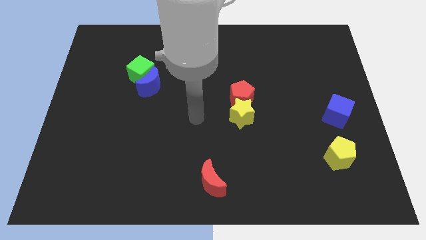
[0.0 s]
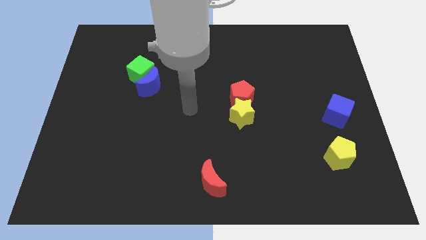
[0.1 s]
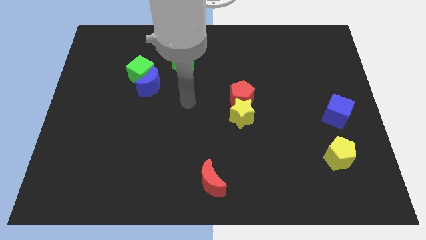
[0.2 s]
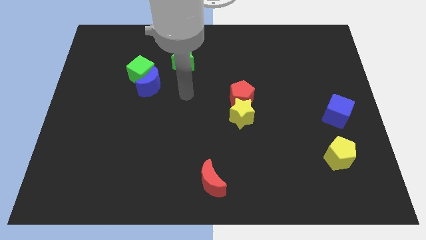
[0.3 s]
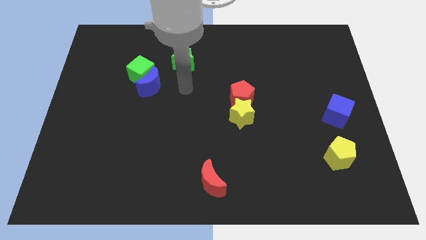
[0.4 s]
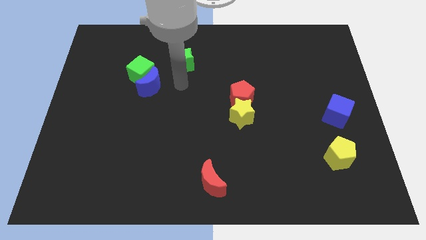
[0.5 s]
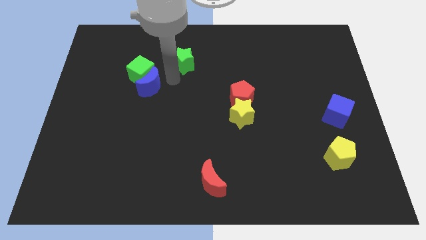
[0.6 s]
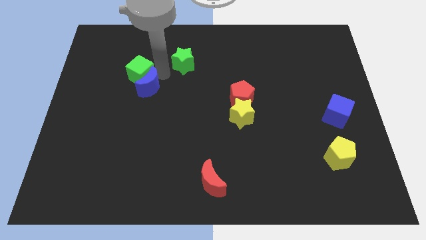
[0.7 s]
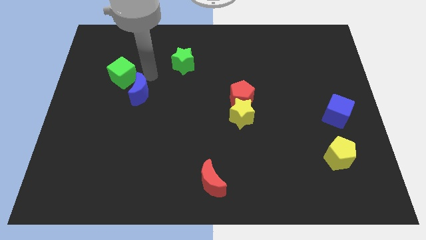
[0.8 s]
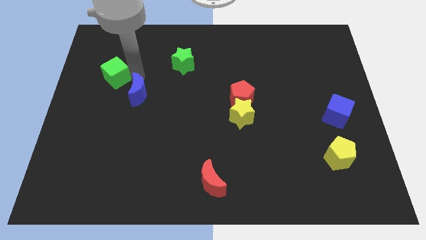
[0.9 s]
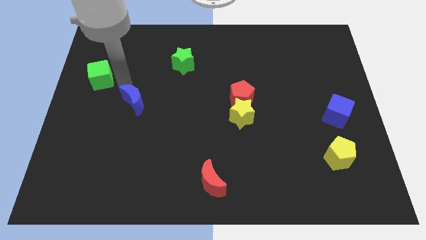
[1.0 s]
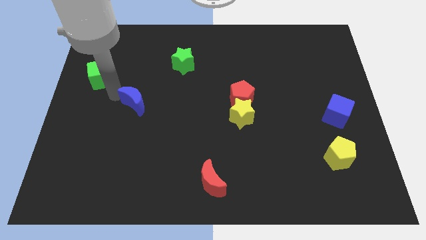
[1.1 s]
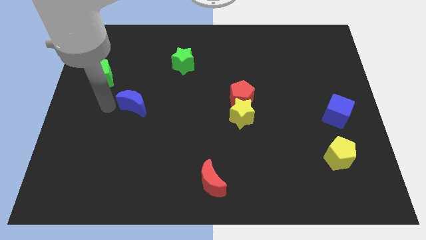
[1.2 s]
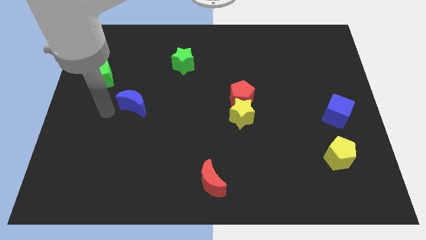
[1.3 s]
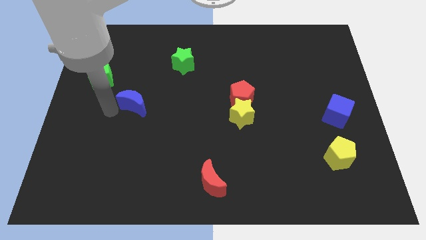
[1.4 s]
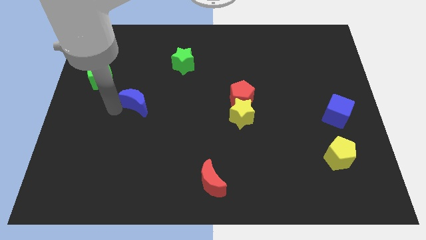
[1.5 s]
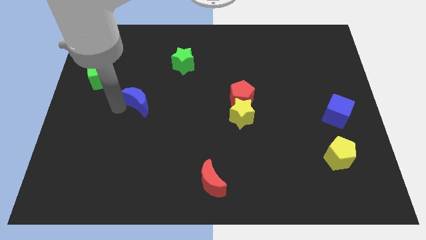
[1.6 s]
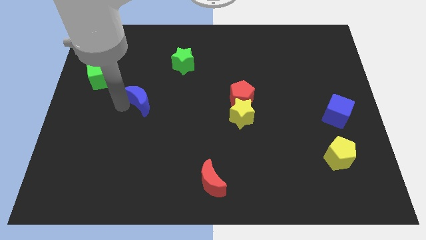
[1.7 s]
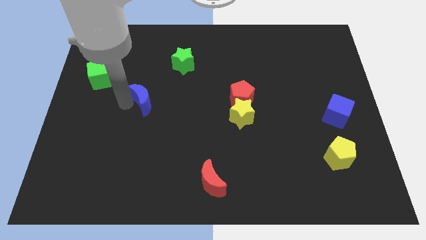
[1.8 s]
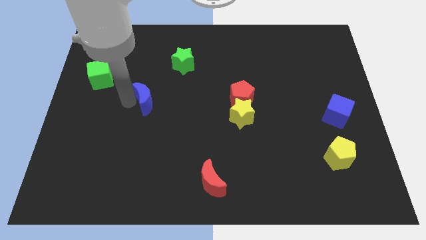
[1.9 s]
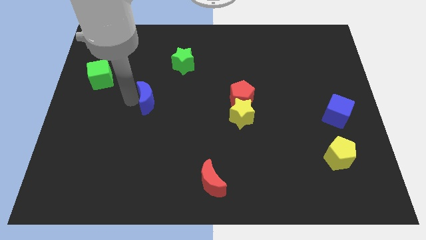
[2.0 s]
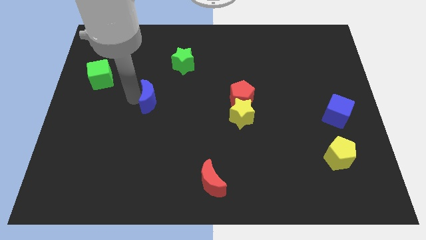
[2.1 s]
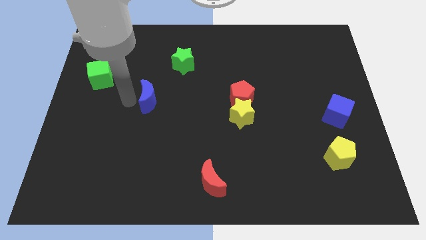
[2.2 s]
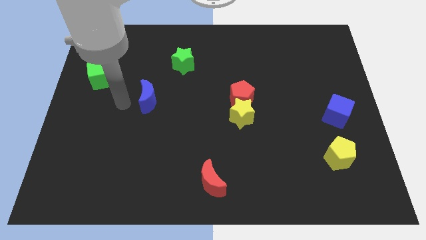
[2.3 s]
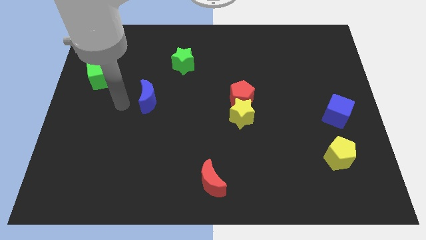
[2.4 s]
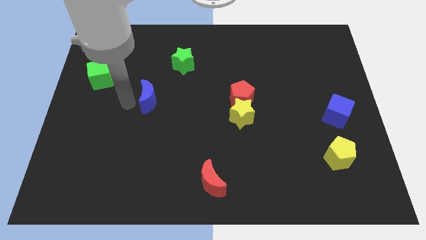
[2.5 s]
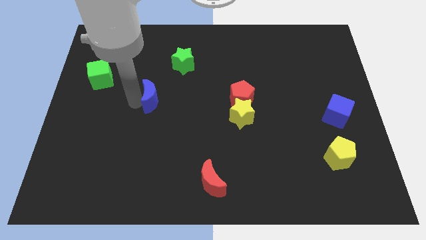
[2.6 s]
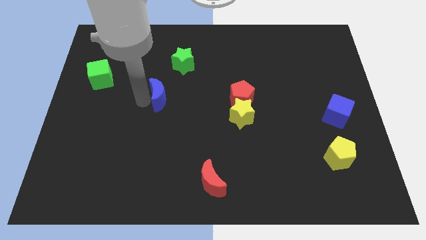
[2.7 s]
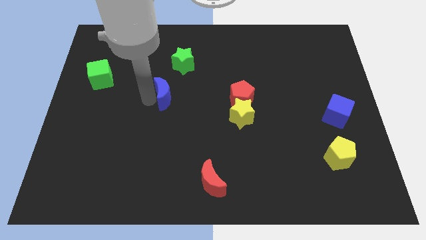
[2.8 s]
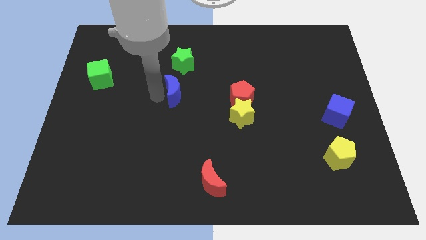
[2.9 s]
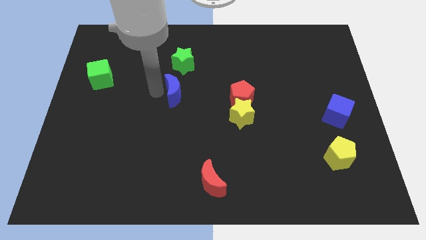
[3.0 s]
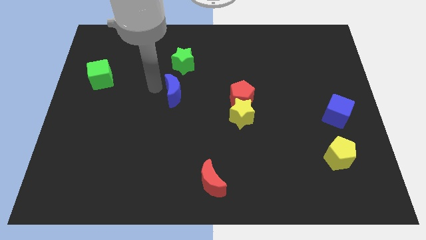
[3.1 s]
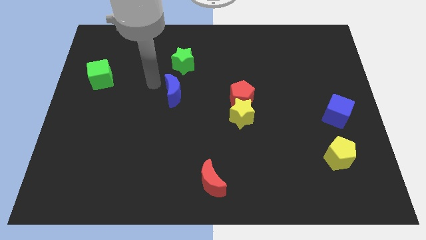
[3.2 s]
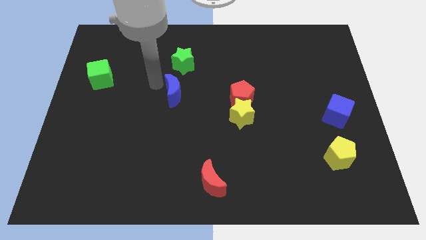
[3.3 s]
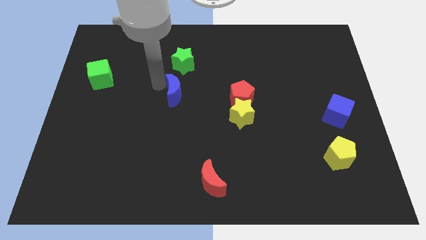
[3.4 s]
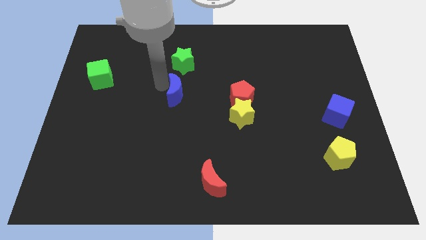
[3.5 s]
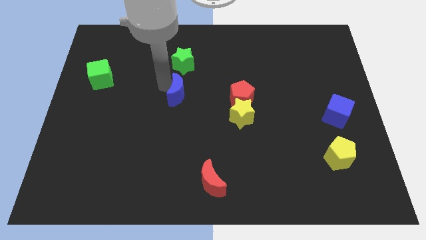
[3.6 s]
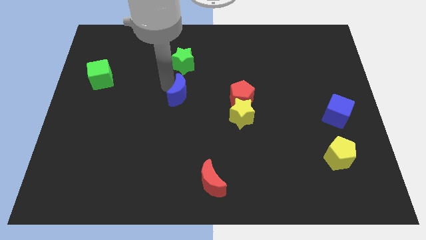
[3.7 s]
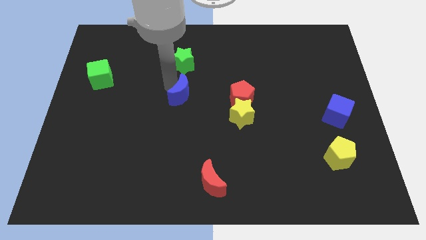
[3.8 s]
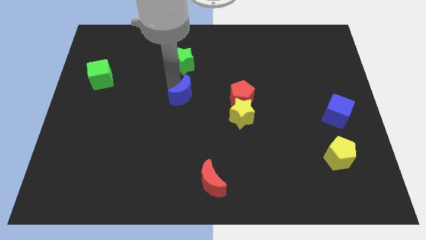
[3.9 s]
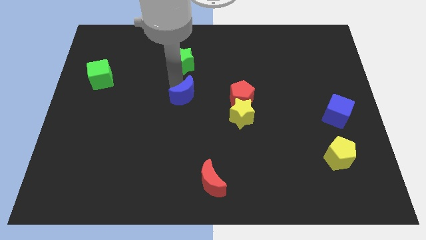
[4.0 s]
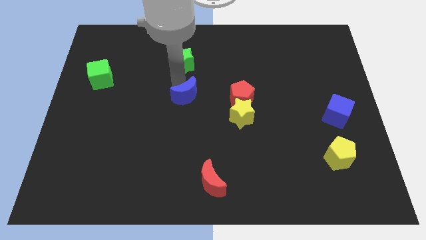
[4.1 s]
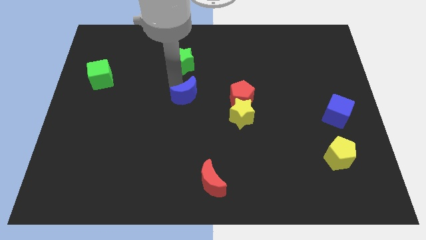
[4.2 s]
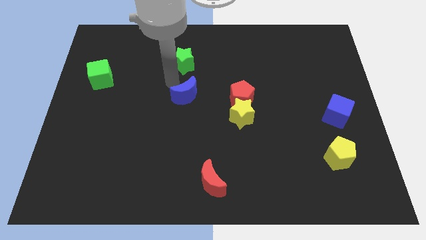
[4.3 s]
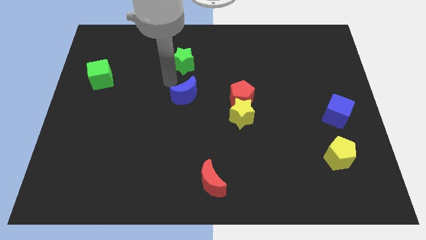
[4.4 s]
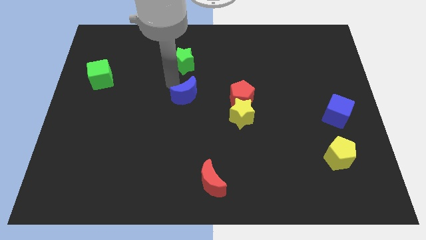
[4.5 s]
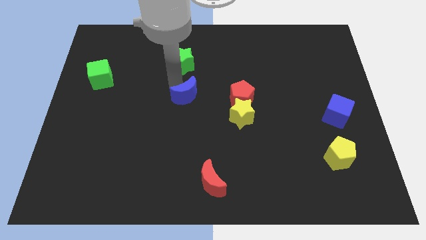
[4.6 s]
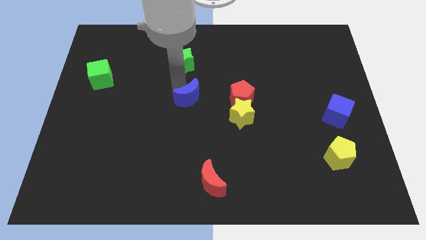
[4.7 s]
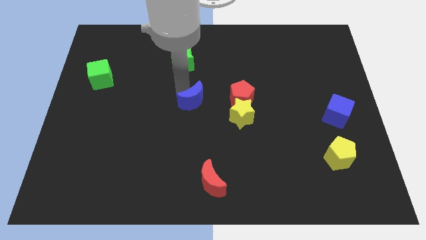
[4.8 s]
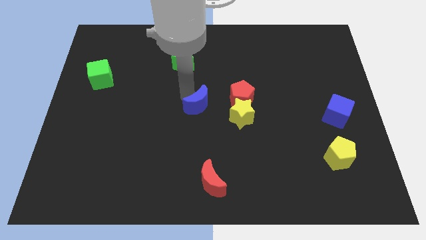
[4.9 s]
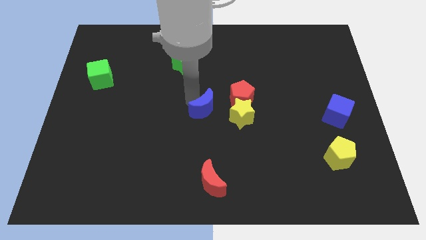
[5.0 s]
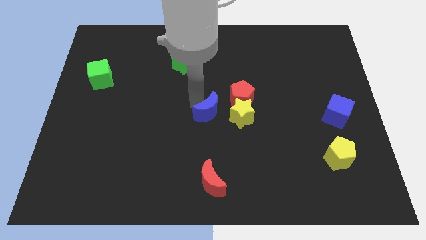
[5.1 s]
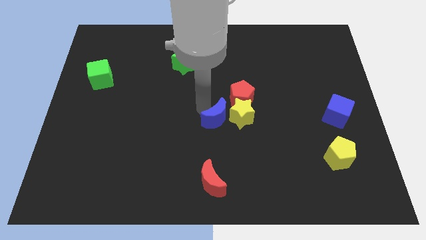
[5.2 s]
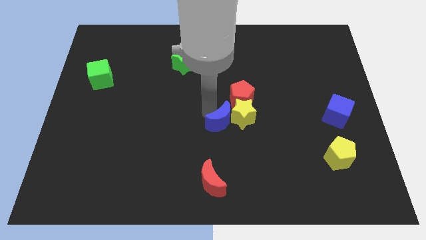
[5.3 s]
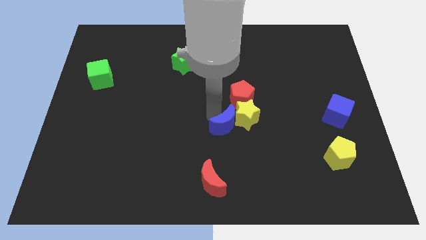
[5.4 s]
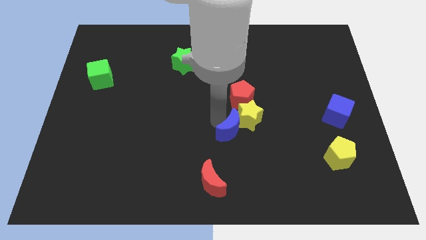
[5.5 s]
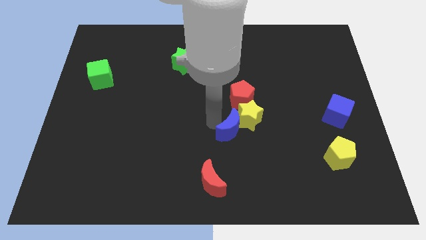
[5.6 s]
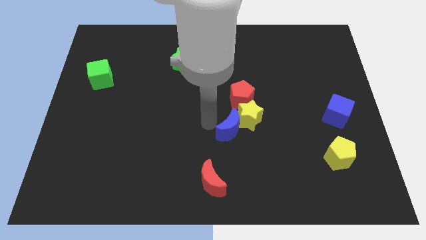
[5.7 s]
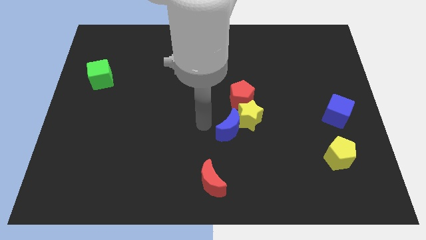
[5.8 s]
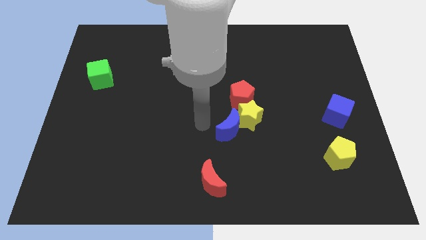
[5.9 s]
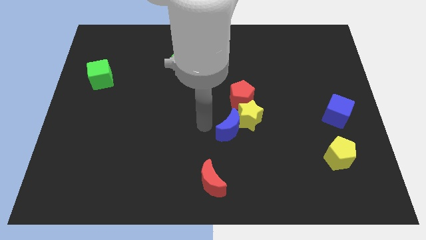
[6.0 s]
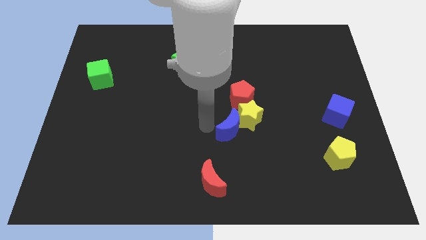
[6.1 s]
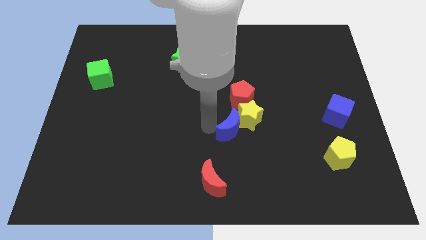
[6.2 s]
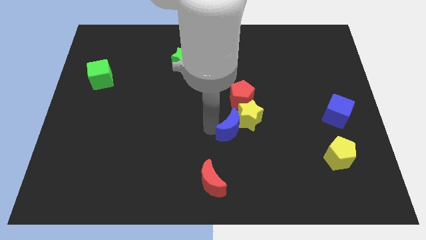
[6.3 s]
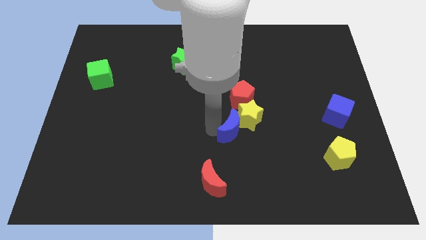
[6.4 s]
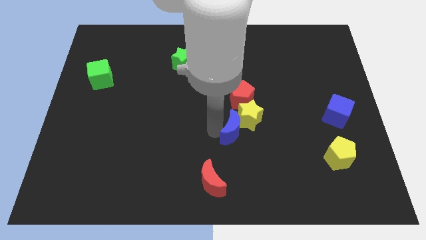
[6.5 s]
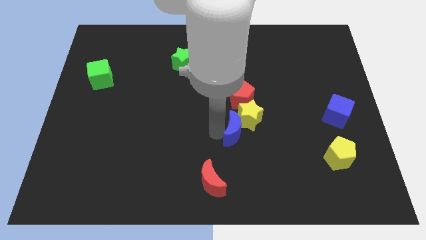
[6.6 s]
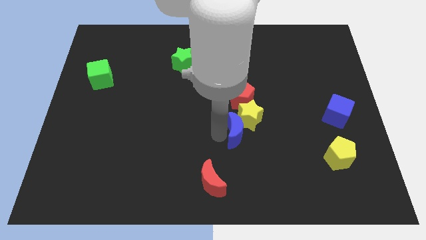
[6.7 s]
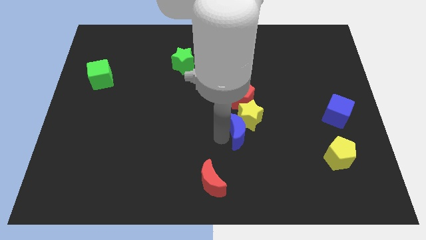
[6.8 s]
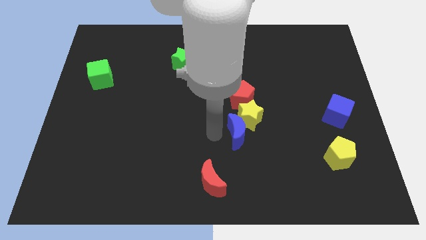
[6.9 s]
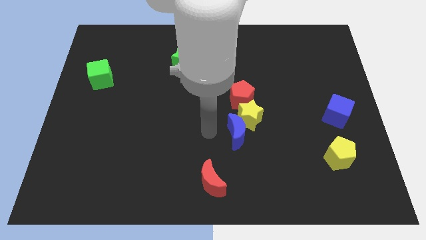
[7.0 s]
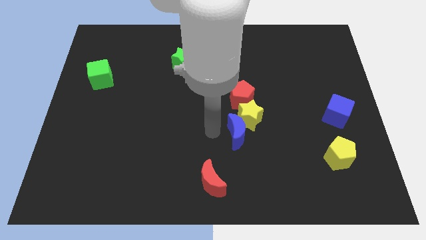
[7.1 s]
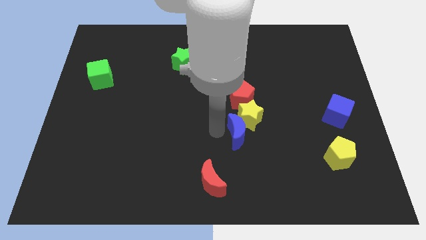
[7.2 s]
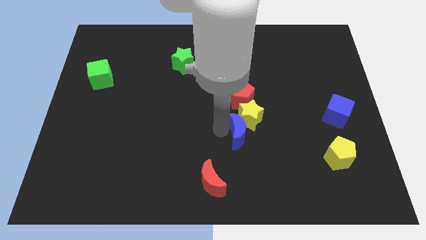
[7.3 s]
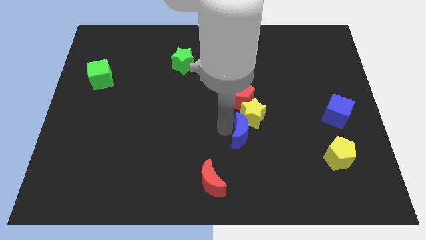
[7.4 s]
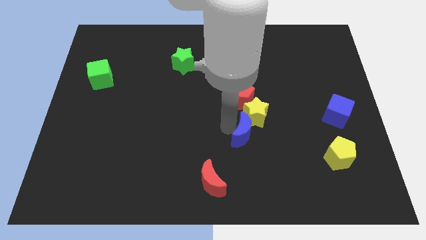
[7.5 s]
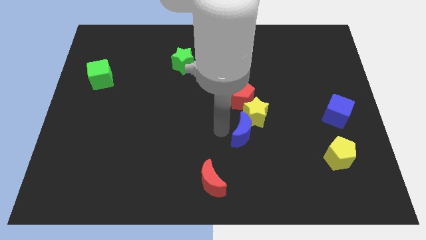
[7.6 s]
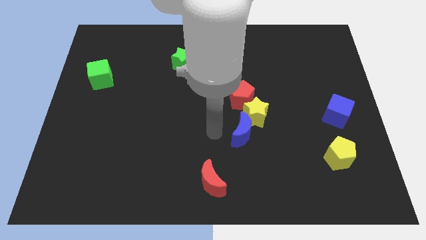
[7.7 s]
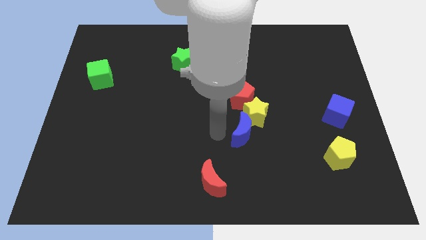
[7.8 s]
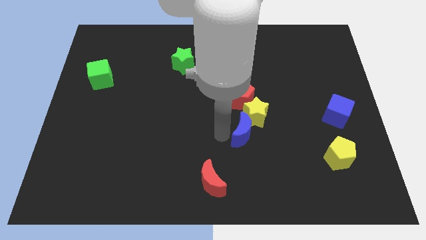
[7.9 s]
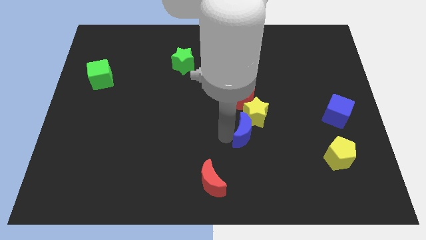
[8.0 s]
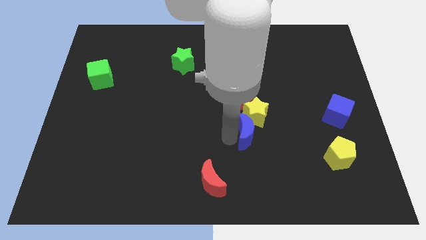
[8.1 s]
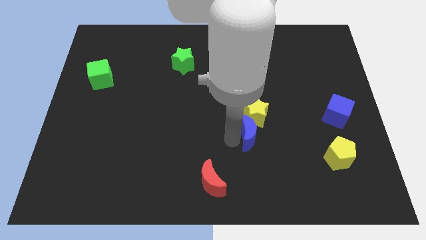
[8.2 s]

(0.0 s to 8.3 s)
put the blue moon to the bottom right side of the yellow star
